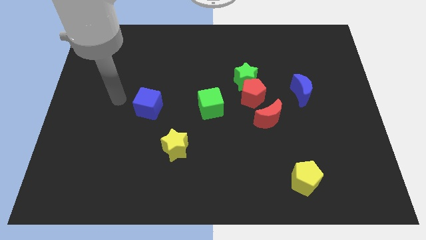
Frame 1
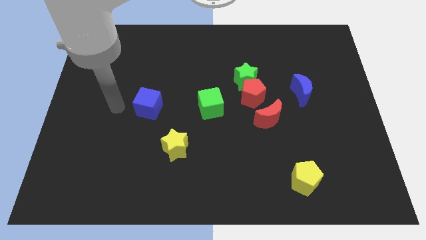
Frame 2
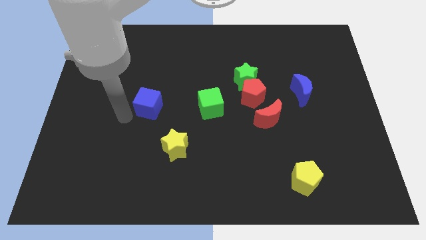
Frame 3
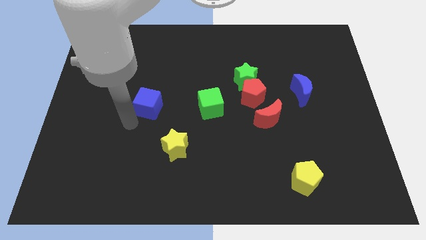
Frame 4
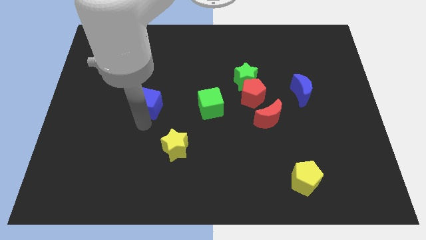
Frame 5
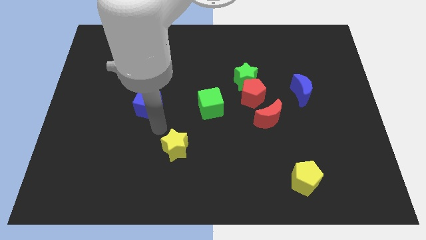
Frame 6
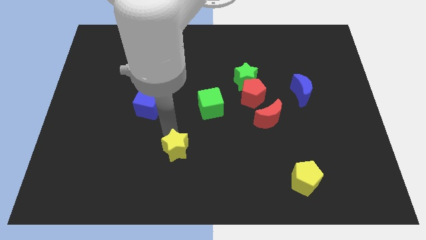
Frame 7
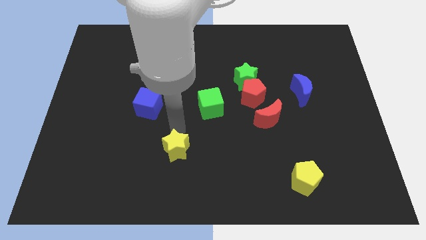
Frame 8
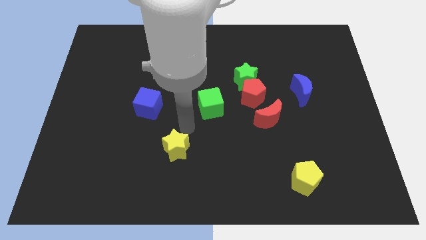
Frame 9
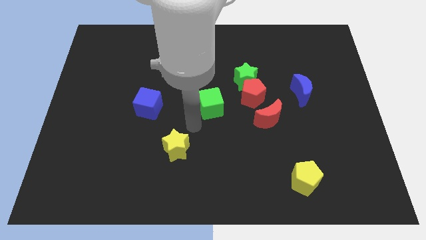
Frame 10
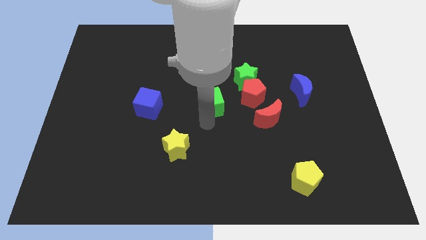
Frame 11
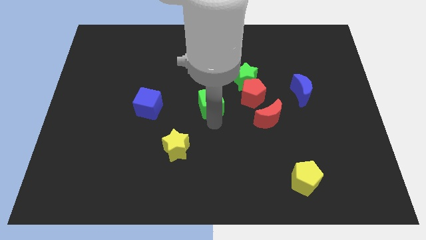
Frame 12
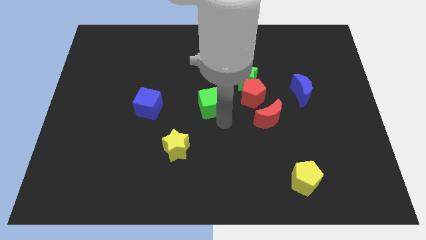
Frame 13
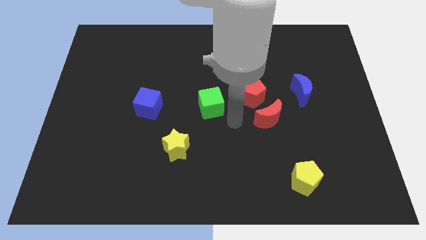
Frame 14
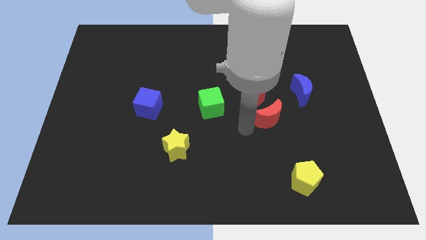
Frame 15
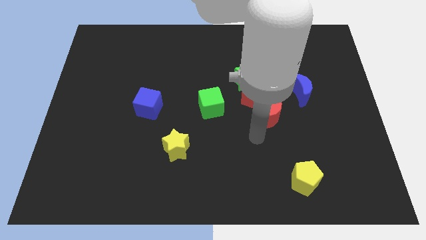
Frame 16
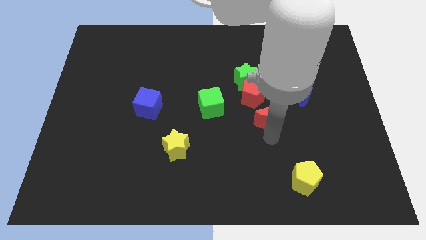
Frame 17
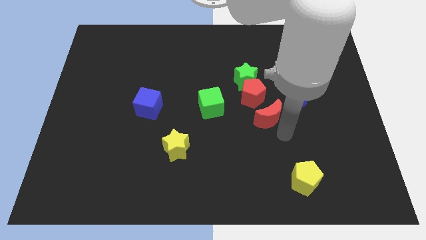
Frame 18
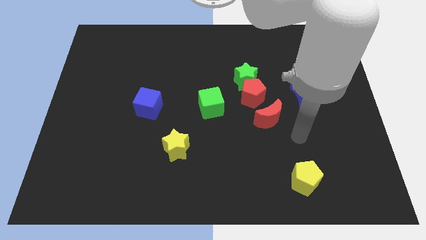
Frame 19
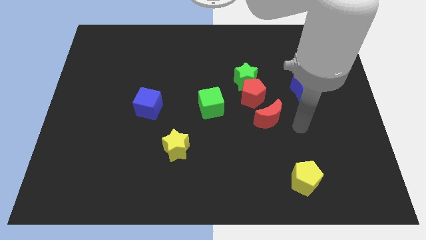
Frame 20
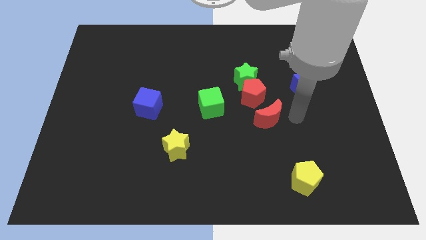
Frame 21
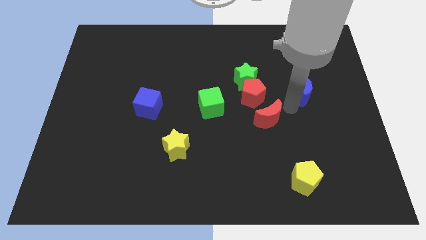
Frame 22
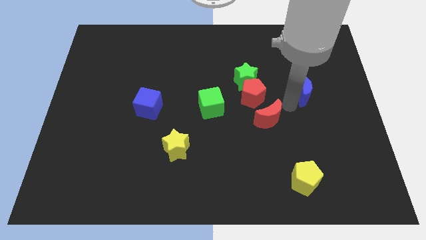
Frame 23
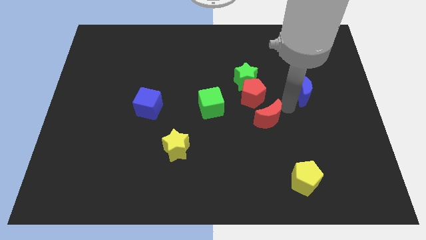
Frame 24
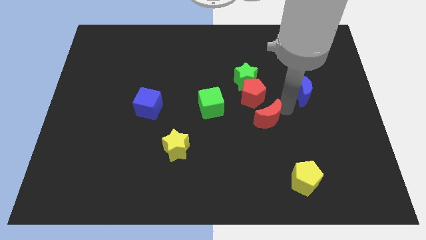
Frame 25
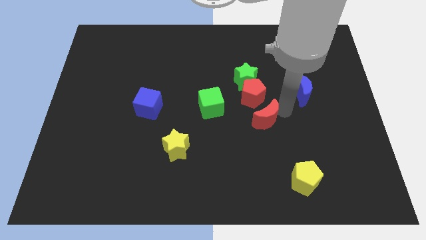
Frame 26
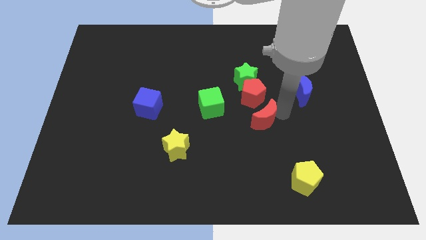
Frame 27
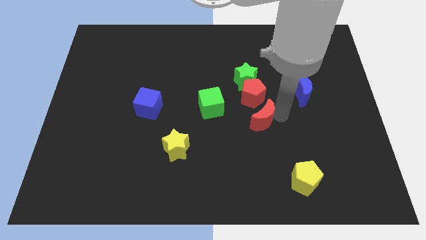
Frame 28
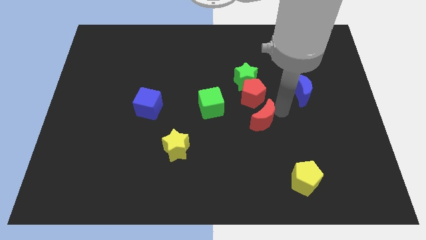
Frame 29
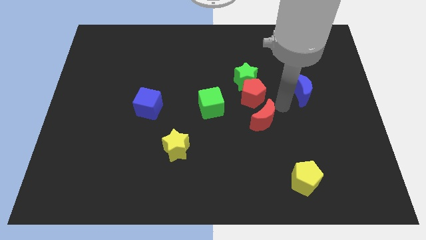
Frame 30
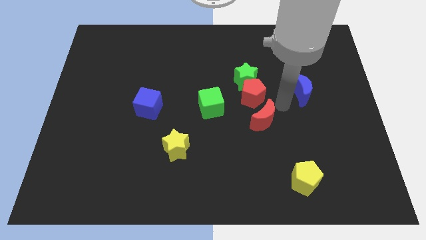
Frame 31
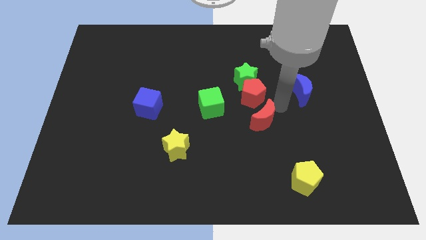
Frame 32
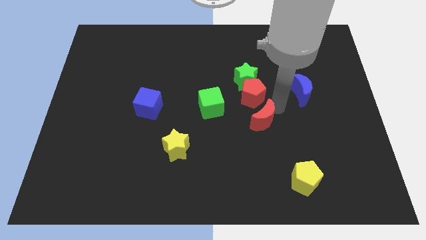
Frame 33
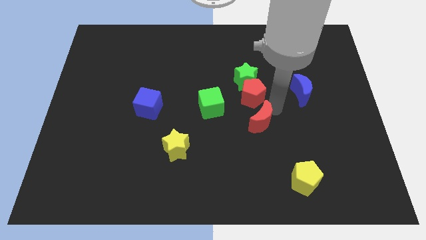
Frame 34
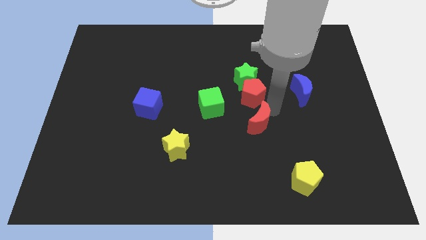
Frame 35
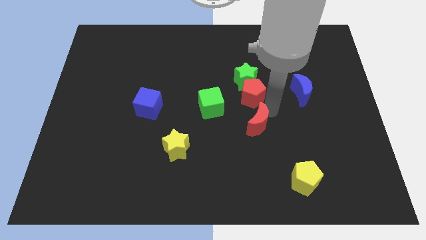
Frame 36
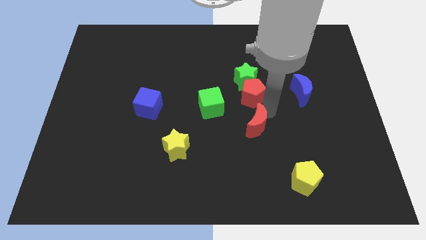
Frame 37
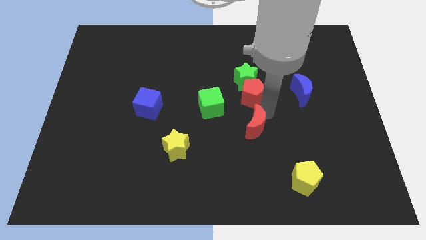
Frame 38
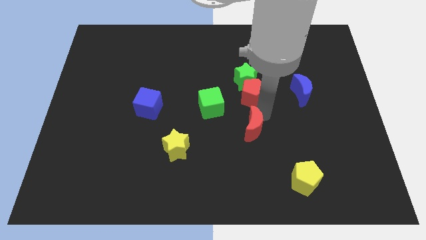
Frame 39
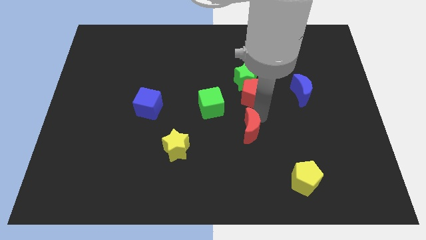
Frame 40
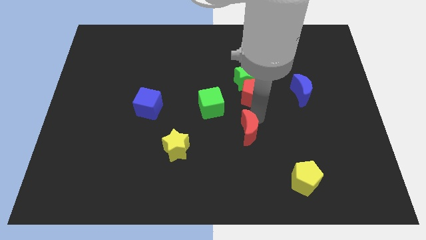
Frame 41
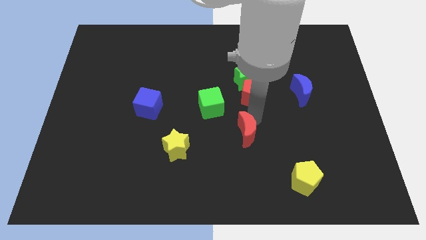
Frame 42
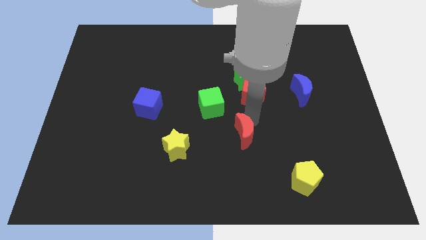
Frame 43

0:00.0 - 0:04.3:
slide the red moon down and to the left slightly

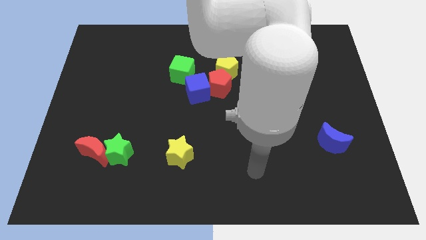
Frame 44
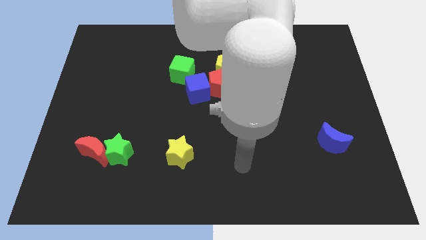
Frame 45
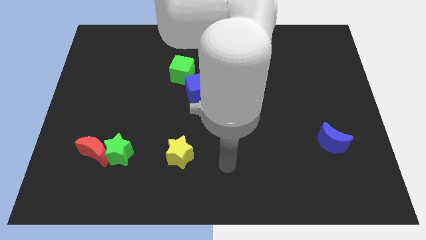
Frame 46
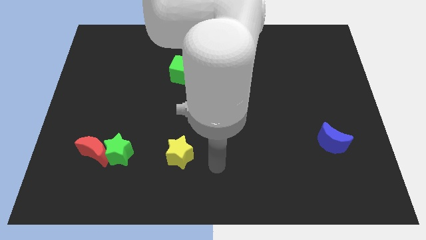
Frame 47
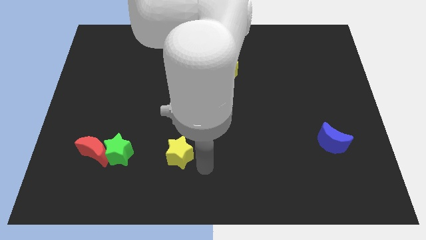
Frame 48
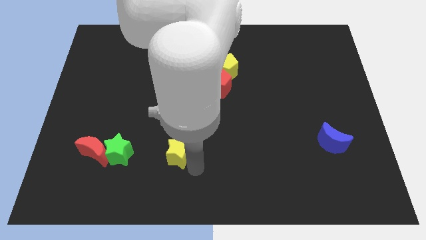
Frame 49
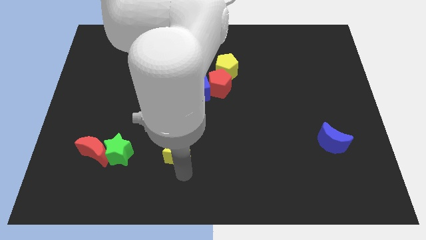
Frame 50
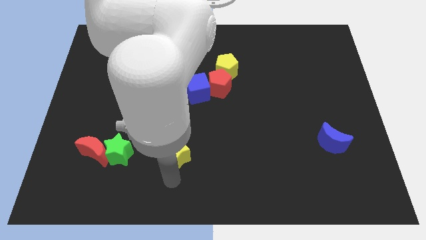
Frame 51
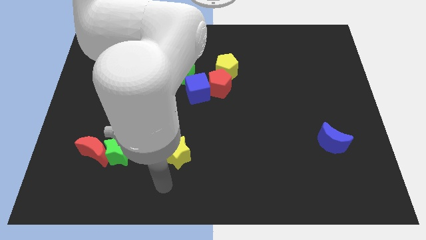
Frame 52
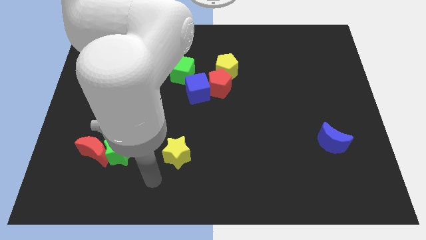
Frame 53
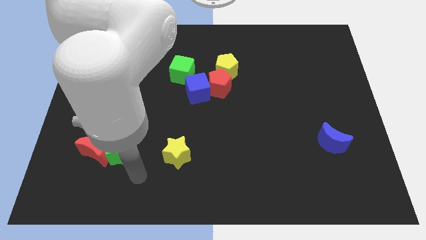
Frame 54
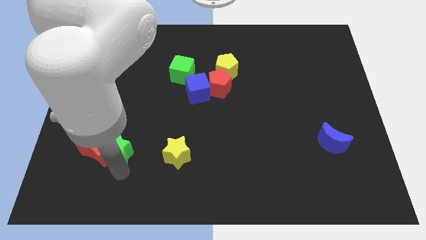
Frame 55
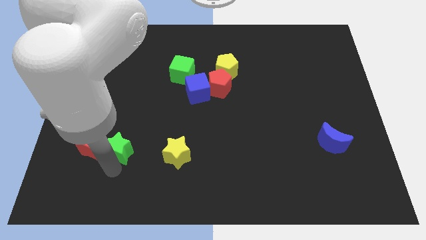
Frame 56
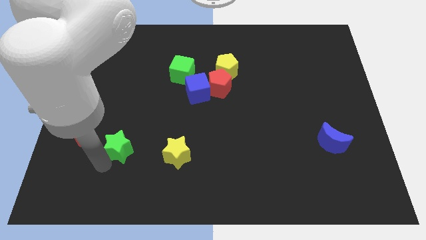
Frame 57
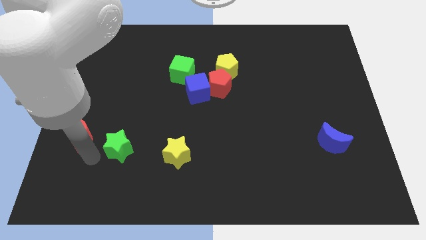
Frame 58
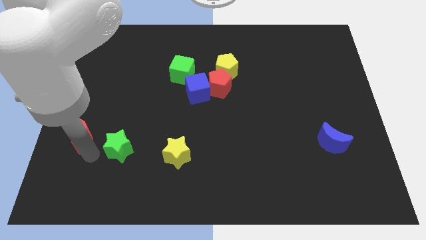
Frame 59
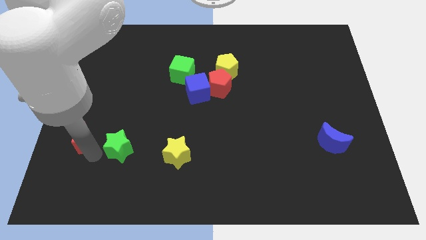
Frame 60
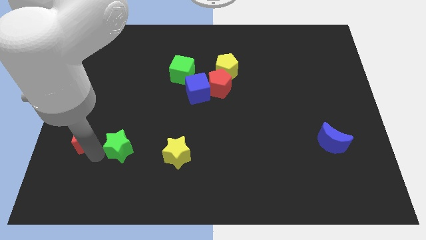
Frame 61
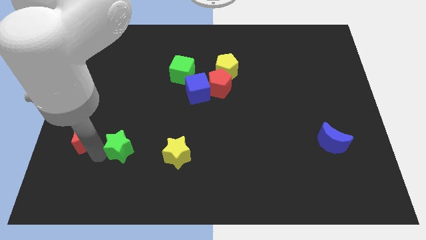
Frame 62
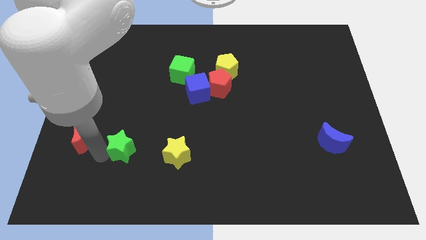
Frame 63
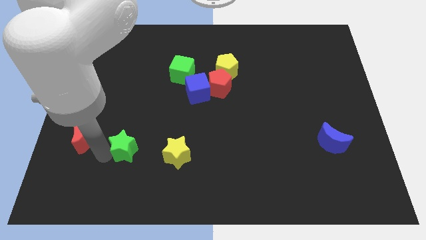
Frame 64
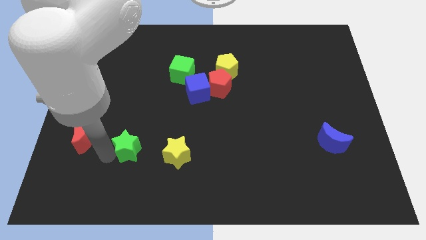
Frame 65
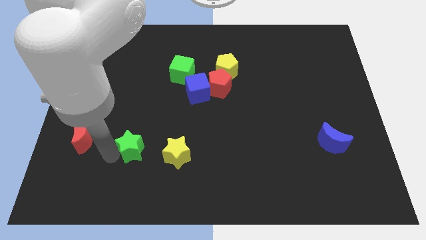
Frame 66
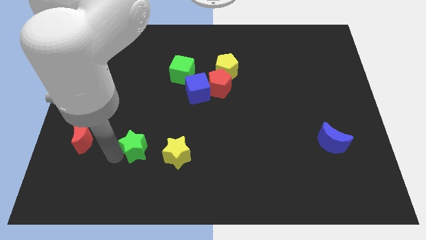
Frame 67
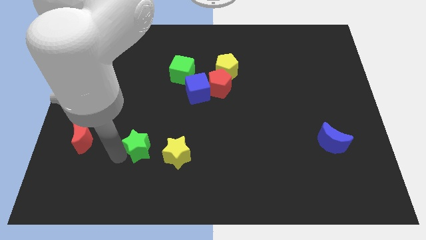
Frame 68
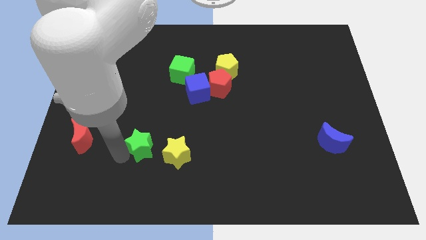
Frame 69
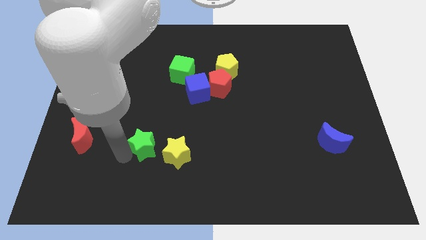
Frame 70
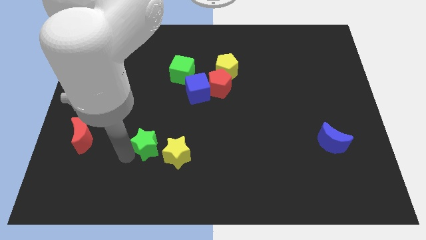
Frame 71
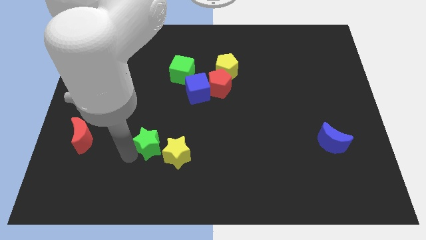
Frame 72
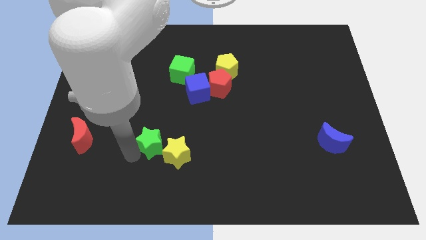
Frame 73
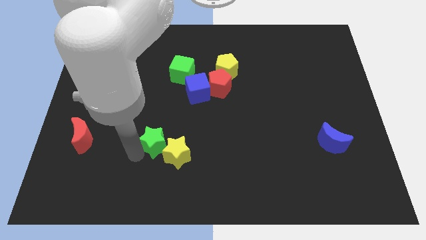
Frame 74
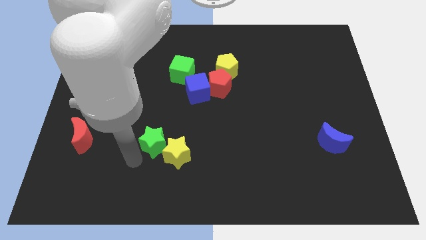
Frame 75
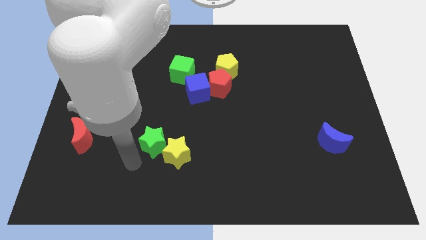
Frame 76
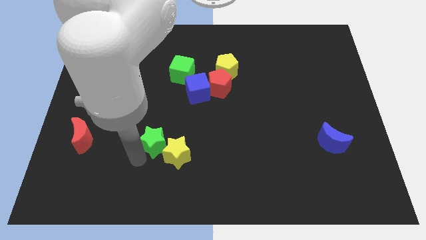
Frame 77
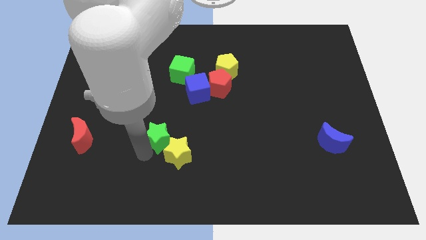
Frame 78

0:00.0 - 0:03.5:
push the green star up and then right a bit
